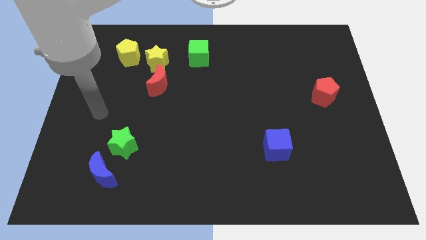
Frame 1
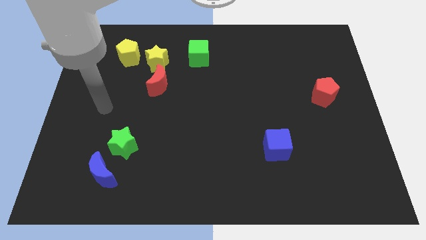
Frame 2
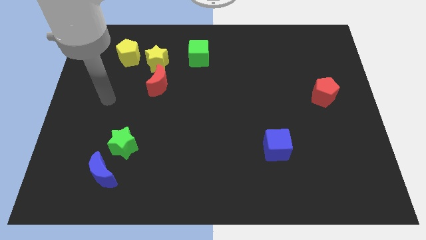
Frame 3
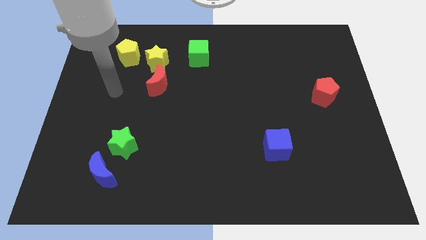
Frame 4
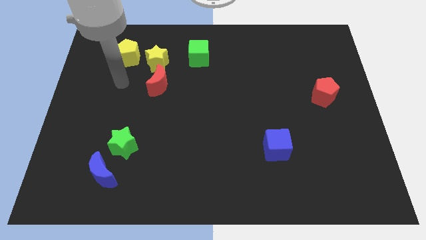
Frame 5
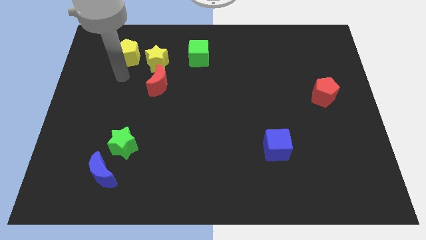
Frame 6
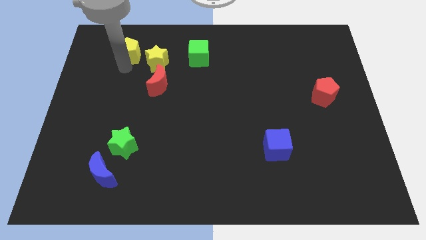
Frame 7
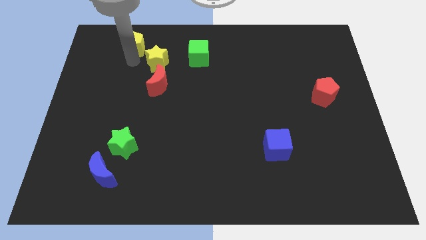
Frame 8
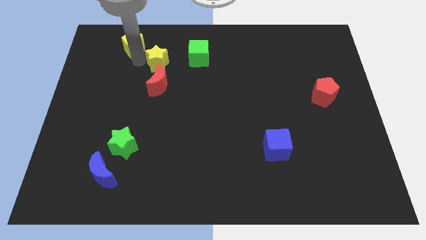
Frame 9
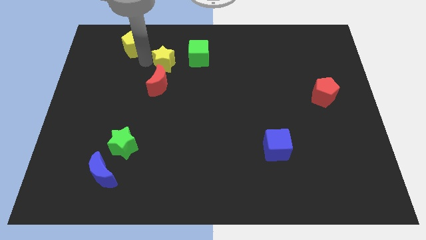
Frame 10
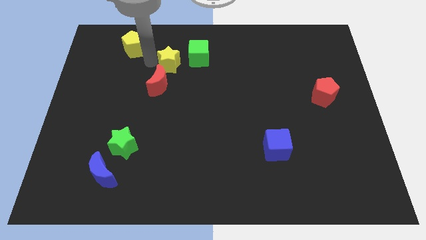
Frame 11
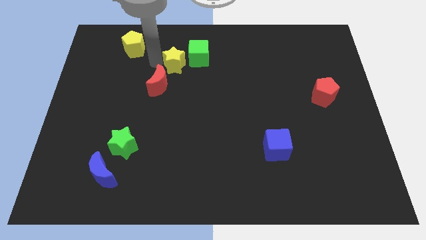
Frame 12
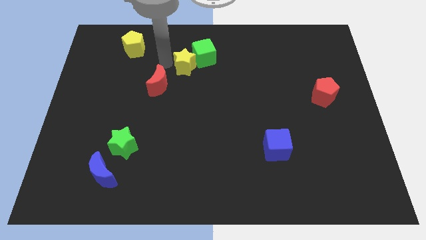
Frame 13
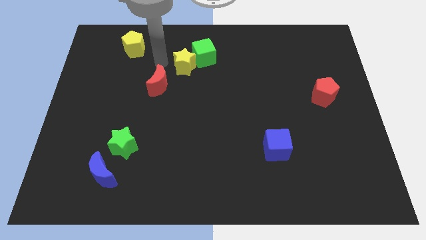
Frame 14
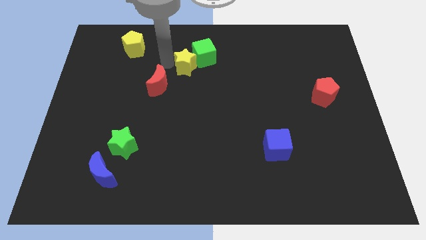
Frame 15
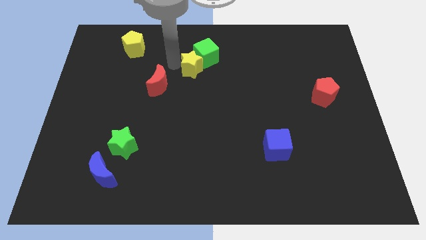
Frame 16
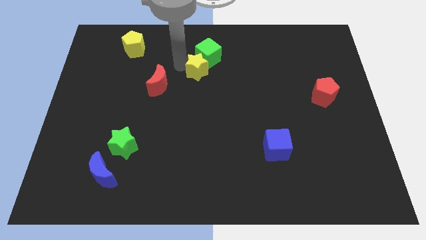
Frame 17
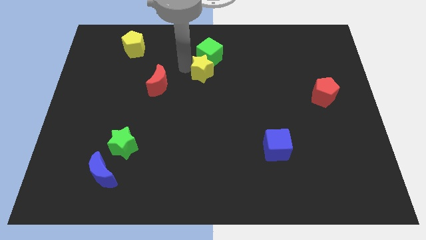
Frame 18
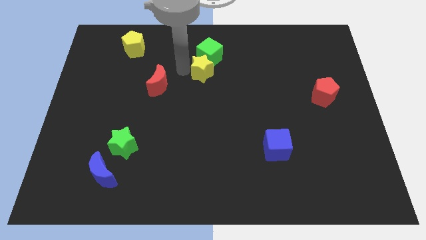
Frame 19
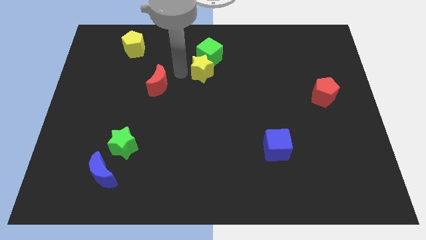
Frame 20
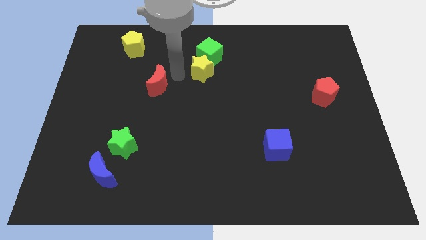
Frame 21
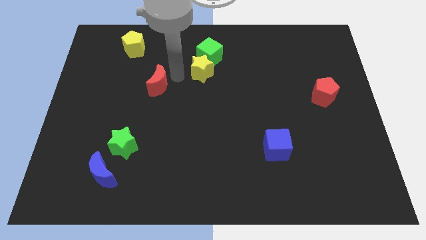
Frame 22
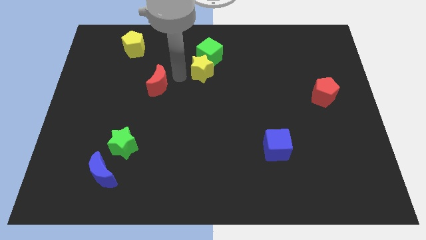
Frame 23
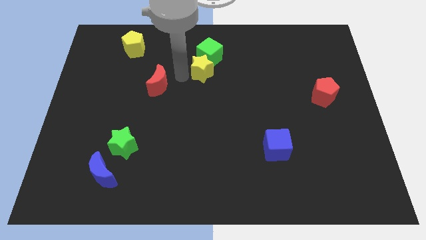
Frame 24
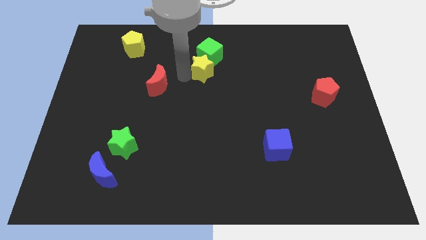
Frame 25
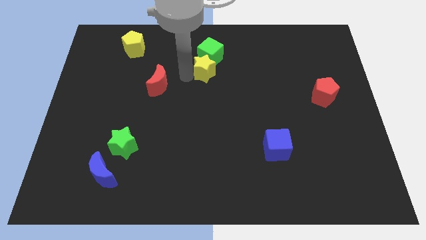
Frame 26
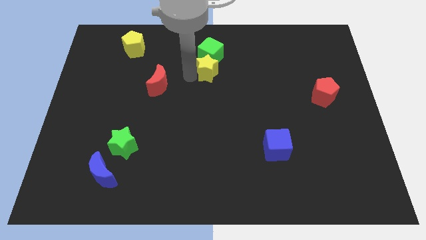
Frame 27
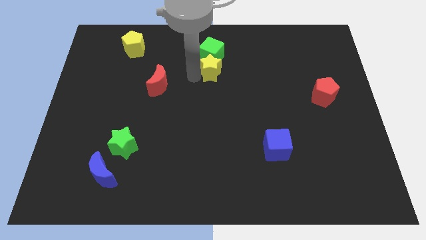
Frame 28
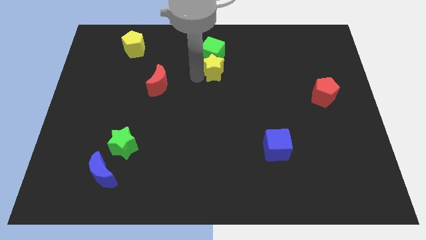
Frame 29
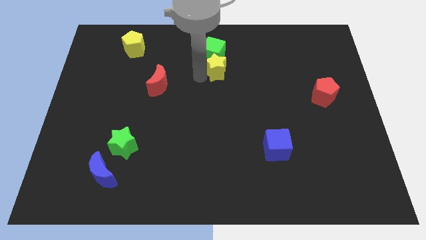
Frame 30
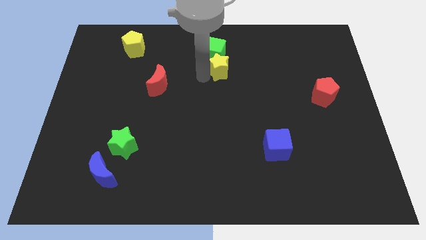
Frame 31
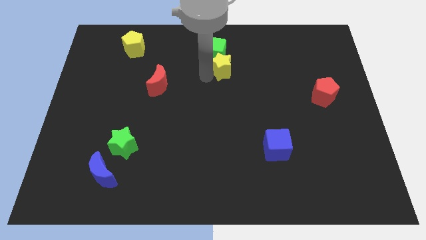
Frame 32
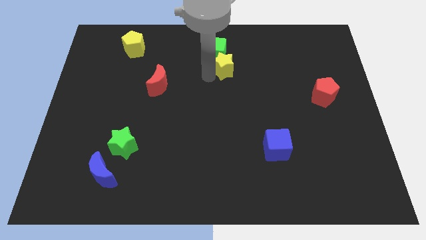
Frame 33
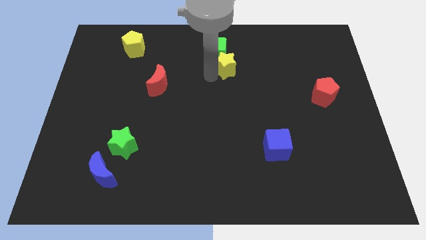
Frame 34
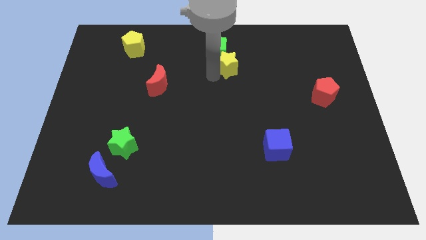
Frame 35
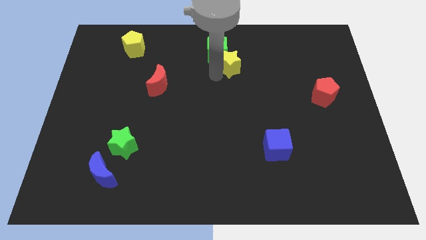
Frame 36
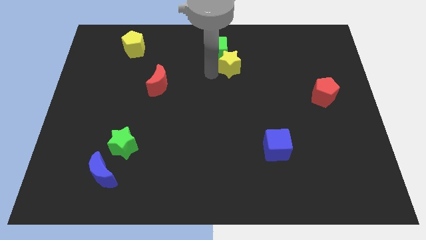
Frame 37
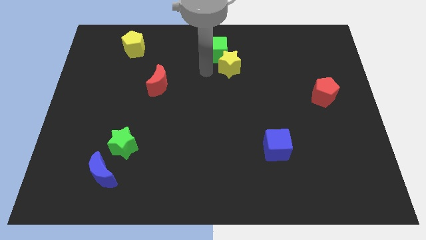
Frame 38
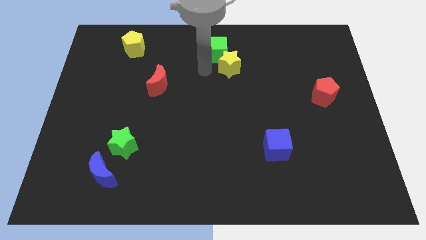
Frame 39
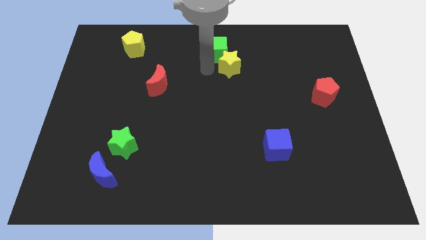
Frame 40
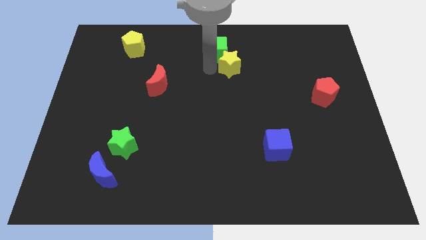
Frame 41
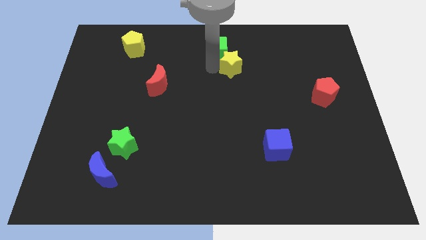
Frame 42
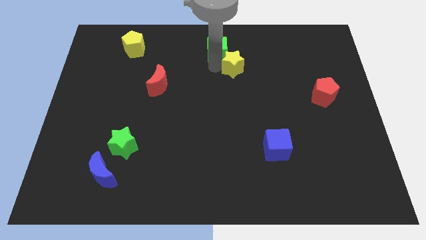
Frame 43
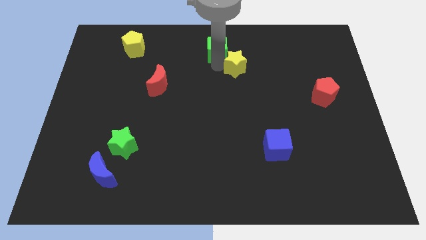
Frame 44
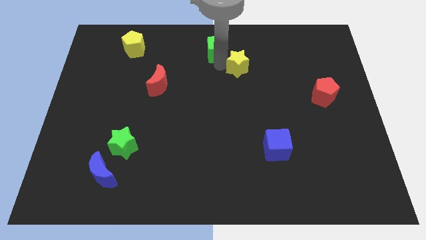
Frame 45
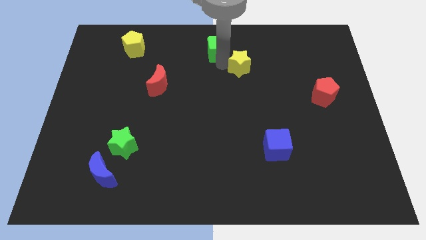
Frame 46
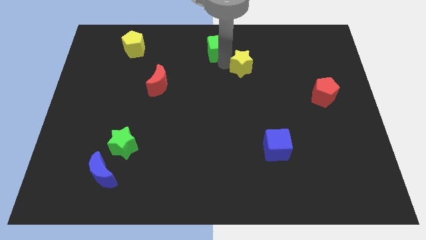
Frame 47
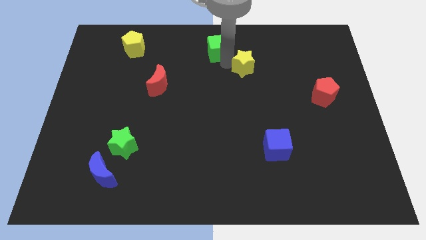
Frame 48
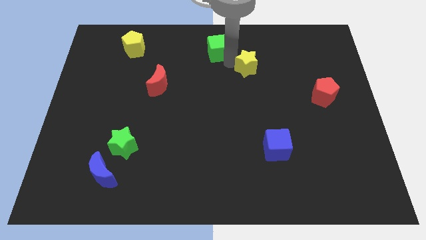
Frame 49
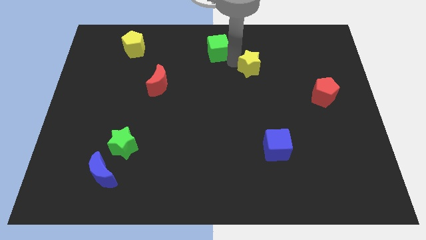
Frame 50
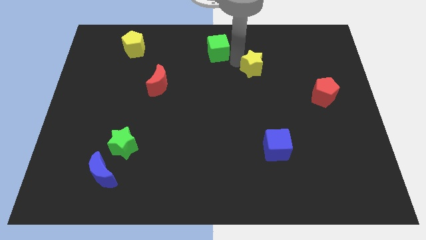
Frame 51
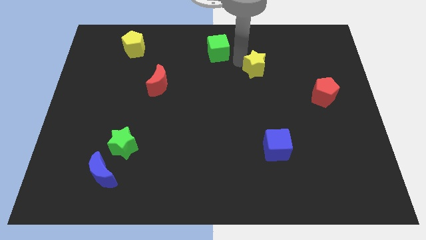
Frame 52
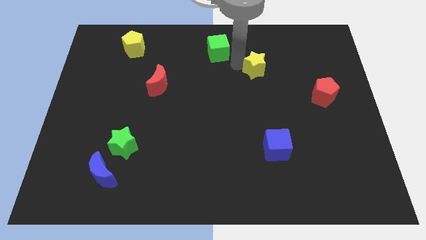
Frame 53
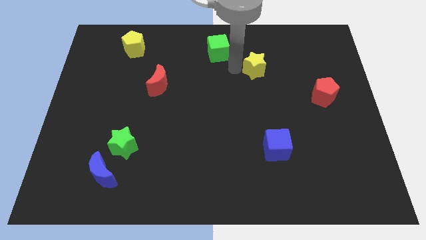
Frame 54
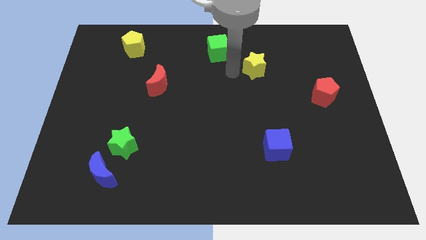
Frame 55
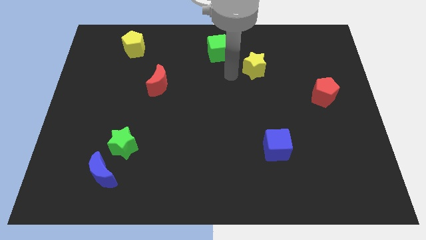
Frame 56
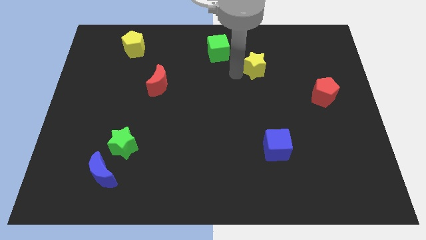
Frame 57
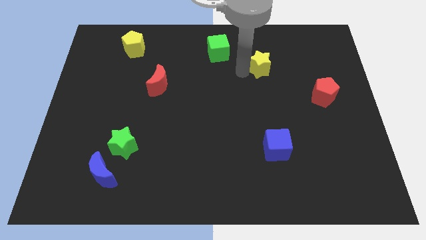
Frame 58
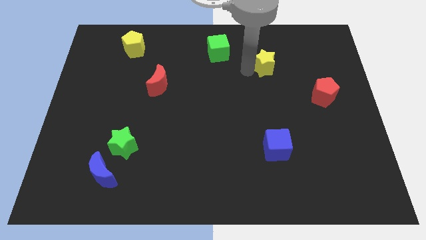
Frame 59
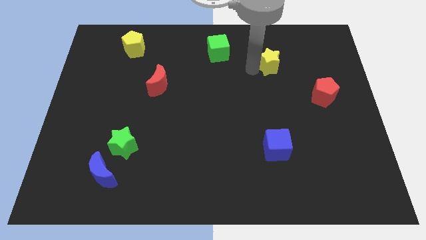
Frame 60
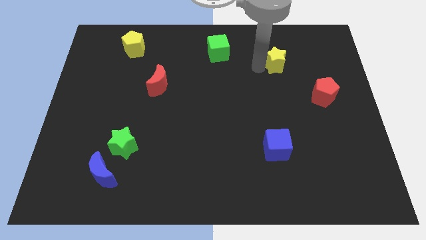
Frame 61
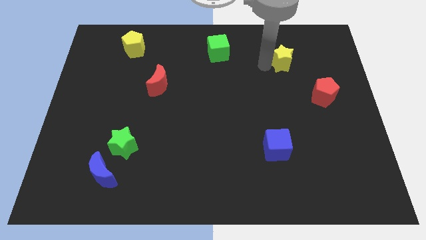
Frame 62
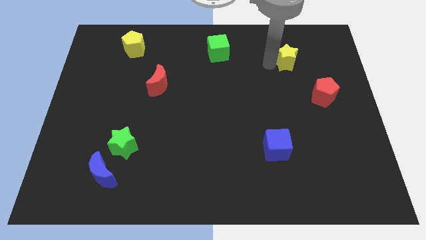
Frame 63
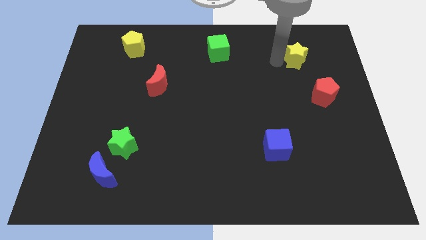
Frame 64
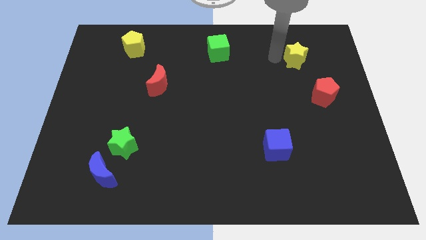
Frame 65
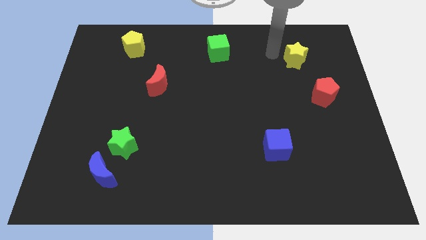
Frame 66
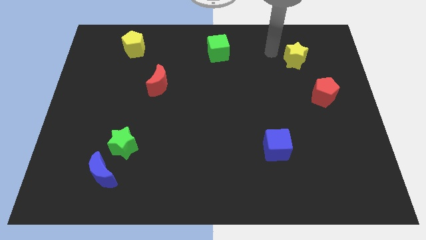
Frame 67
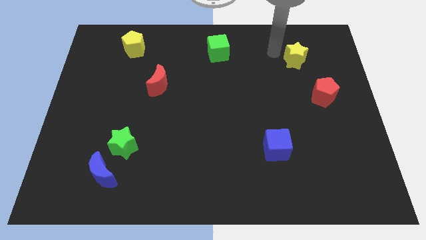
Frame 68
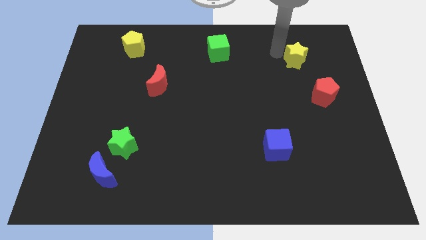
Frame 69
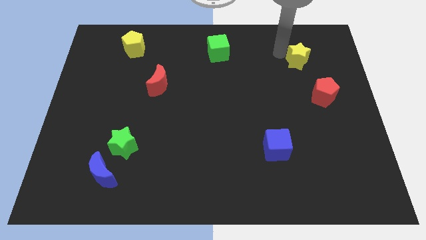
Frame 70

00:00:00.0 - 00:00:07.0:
push the yellow star to the top of the red pentagon
